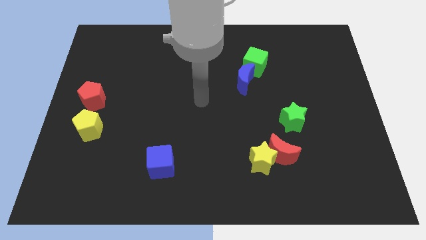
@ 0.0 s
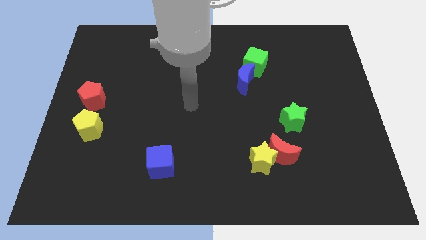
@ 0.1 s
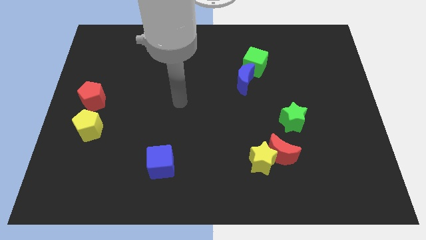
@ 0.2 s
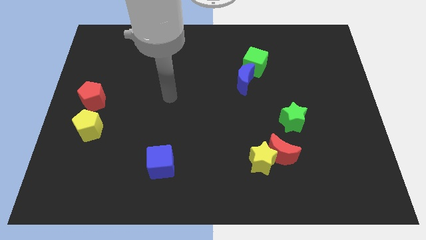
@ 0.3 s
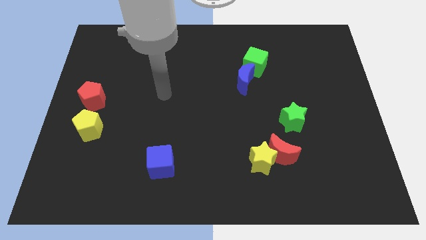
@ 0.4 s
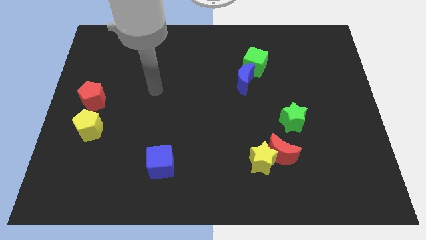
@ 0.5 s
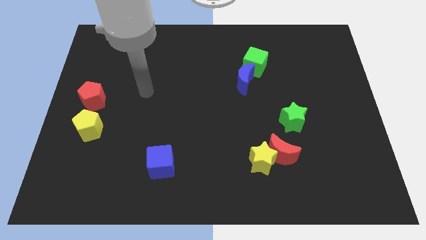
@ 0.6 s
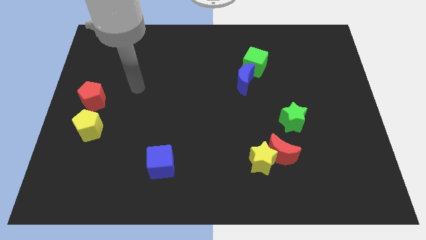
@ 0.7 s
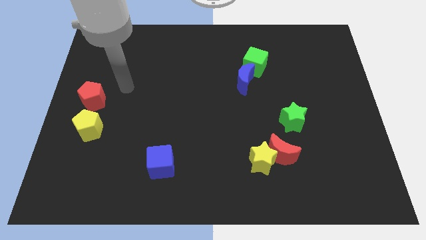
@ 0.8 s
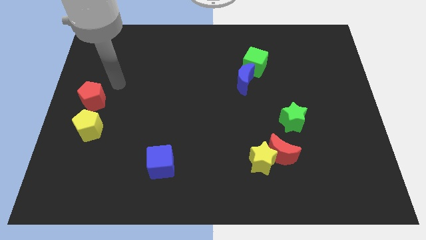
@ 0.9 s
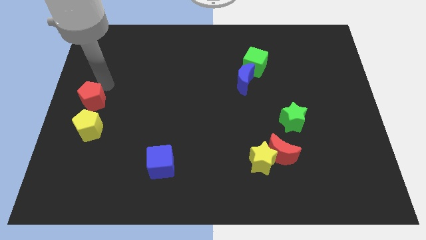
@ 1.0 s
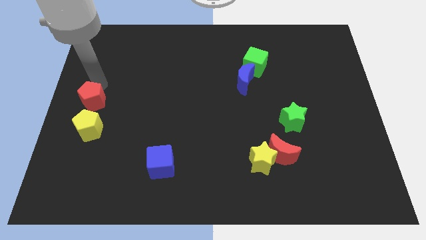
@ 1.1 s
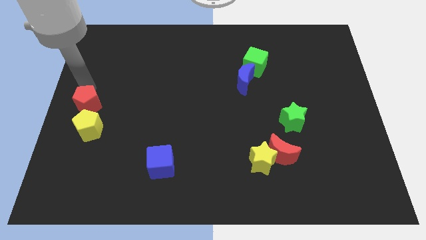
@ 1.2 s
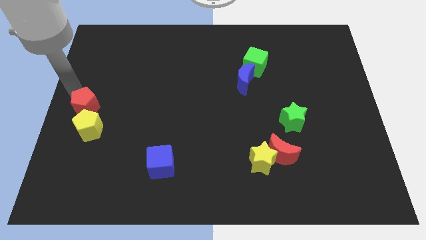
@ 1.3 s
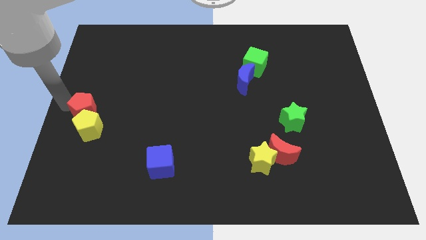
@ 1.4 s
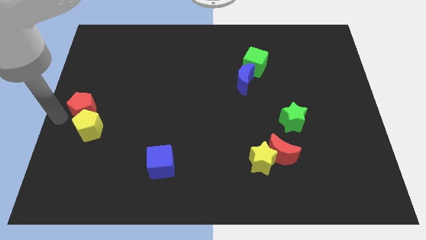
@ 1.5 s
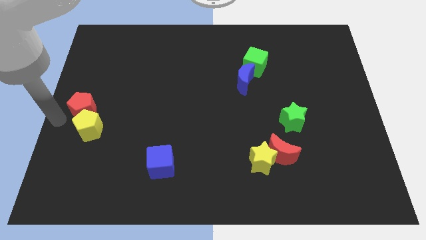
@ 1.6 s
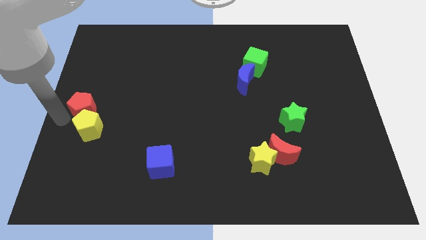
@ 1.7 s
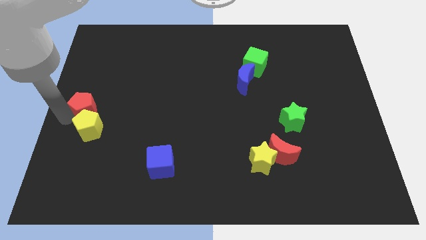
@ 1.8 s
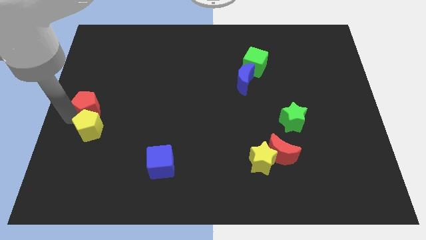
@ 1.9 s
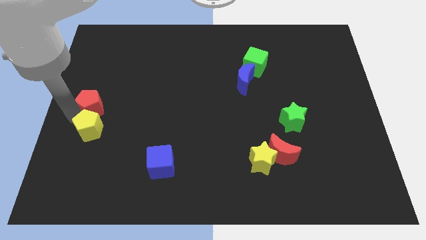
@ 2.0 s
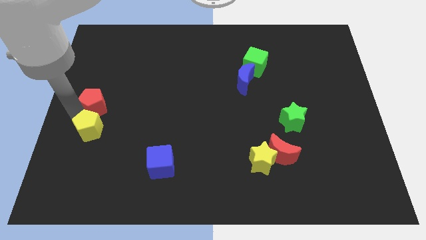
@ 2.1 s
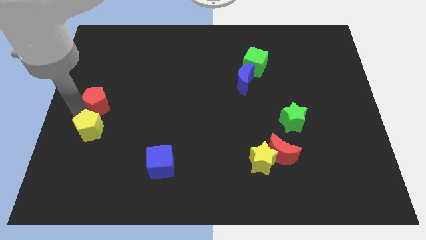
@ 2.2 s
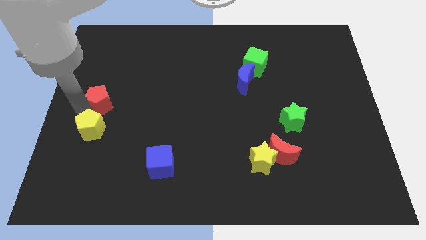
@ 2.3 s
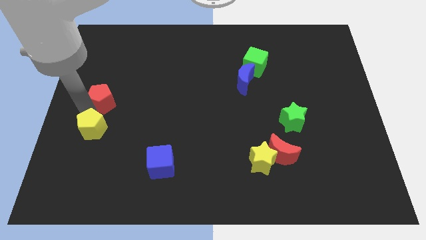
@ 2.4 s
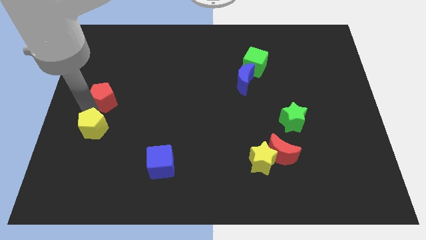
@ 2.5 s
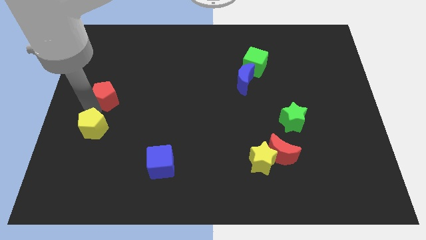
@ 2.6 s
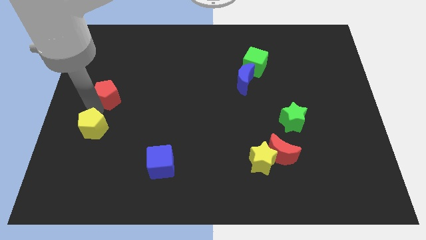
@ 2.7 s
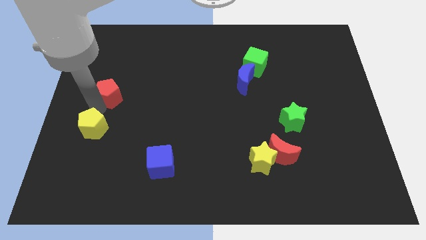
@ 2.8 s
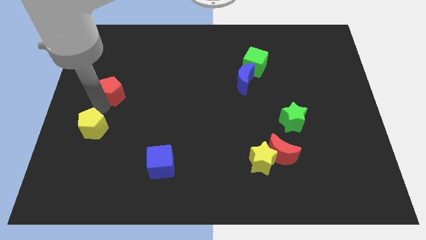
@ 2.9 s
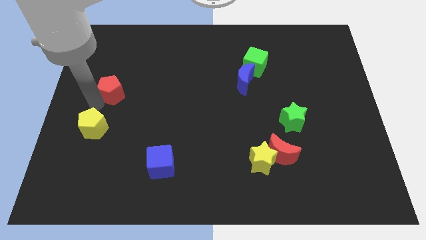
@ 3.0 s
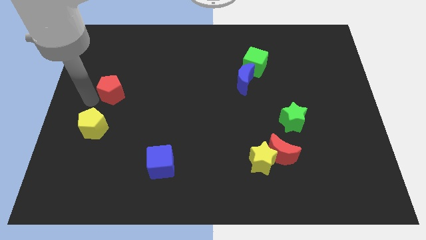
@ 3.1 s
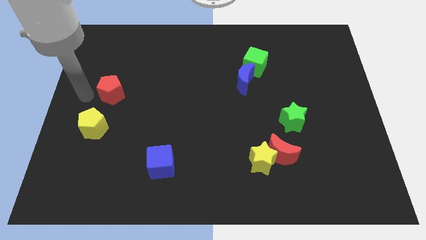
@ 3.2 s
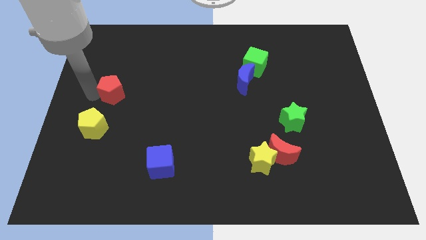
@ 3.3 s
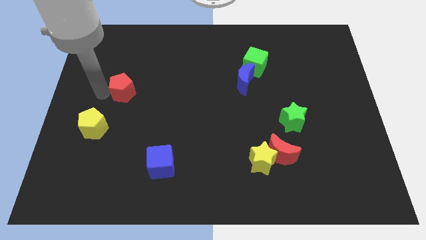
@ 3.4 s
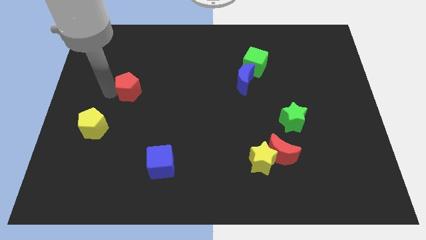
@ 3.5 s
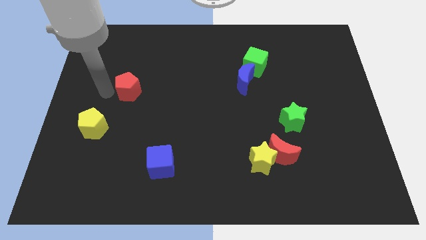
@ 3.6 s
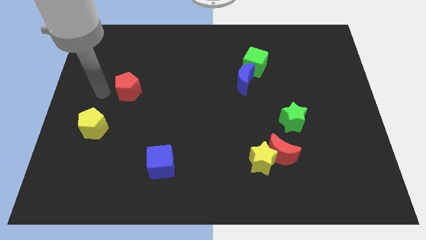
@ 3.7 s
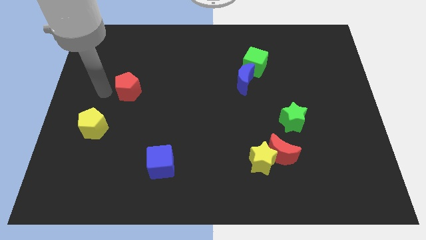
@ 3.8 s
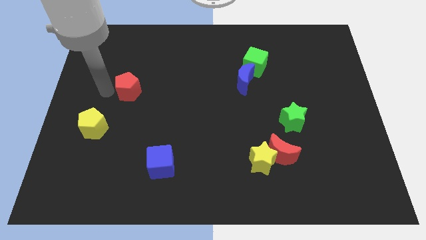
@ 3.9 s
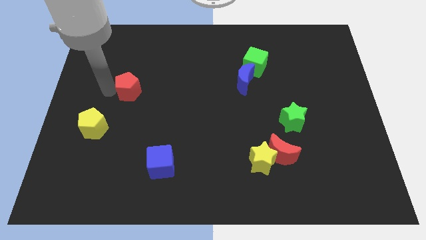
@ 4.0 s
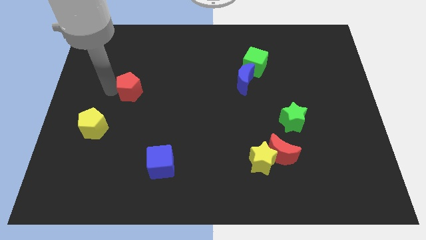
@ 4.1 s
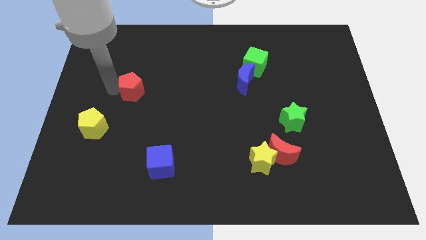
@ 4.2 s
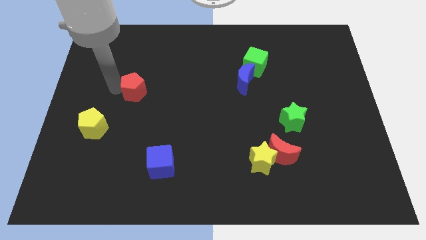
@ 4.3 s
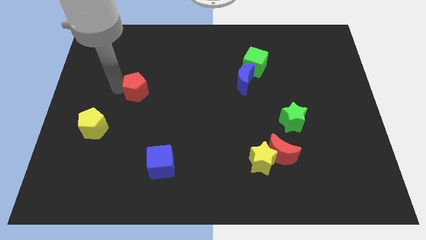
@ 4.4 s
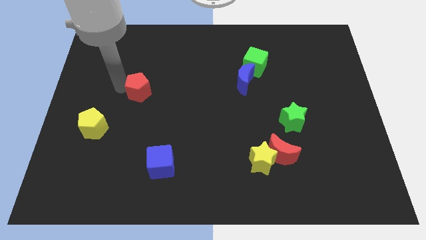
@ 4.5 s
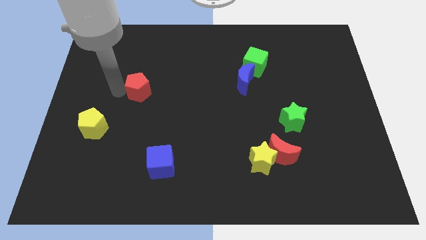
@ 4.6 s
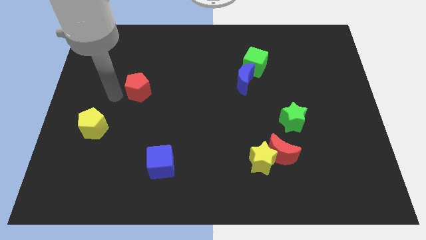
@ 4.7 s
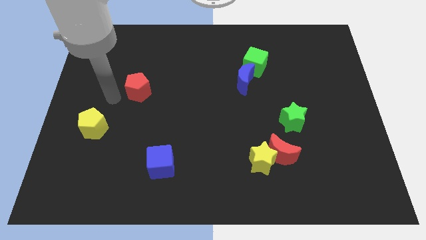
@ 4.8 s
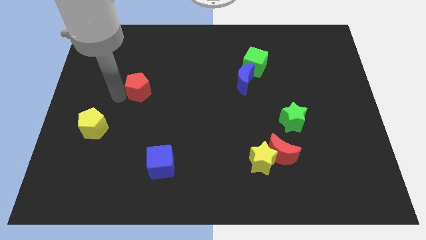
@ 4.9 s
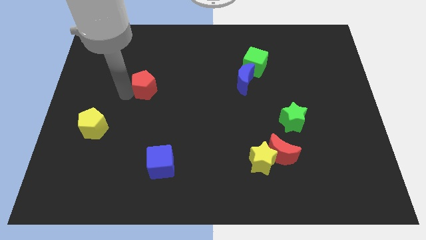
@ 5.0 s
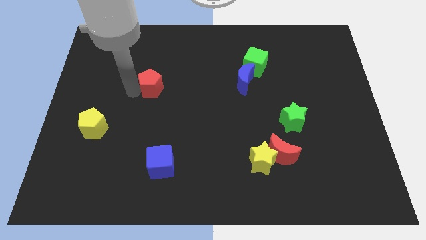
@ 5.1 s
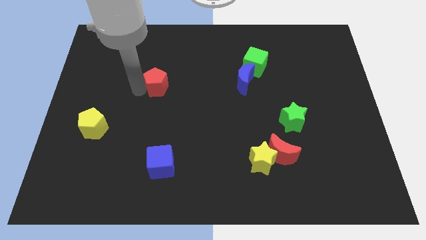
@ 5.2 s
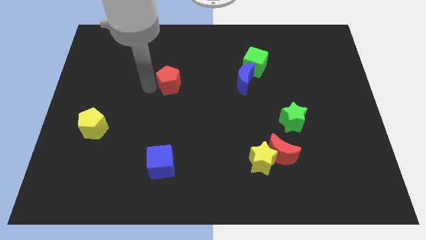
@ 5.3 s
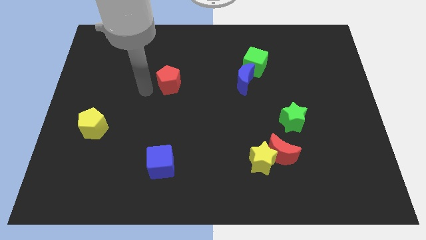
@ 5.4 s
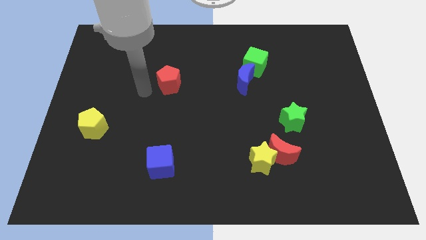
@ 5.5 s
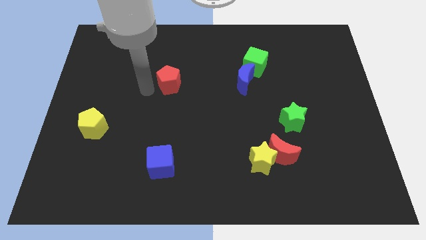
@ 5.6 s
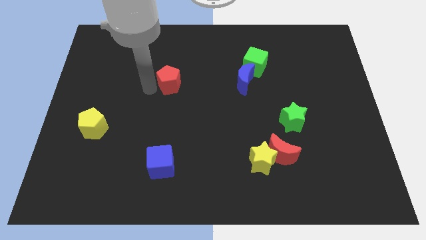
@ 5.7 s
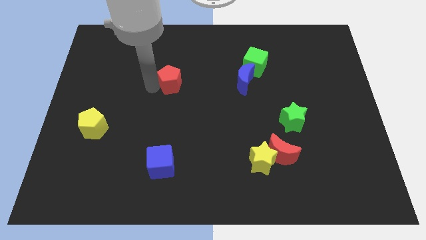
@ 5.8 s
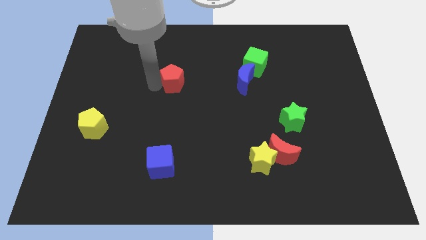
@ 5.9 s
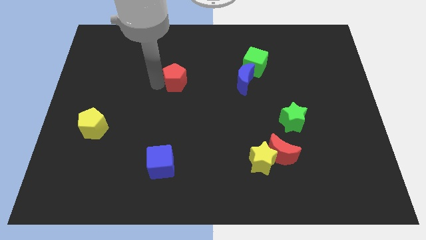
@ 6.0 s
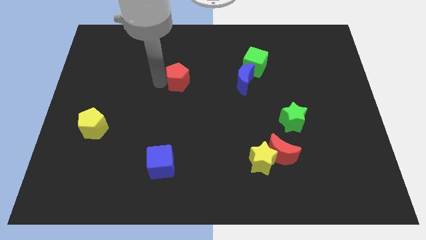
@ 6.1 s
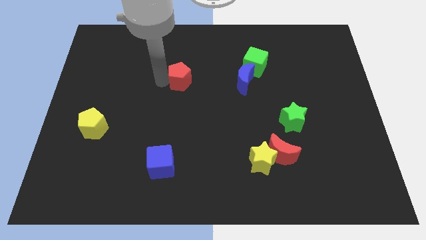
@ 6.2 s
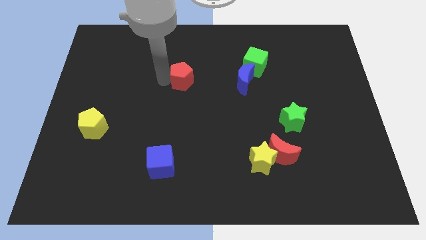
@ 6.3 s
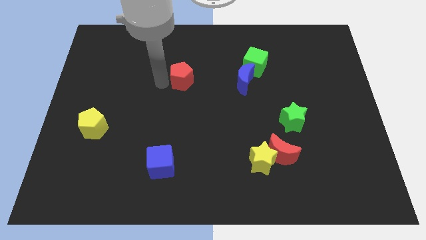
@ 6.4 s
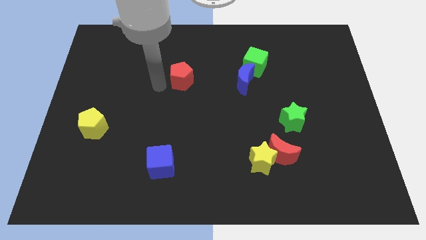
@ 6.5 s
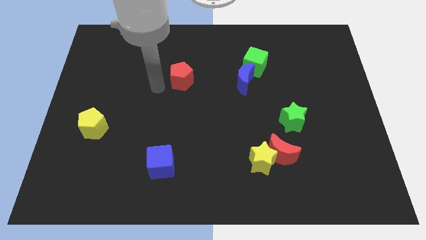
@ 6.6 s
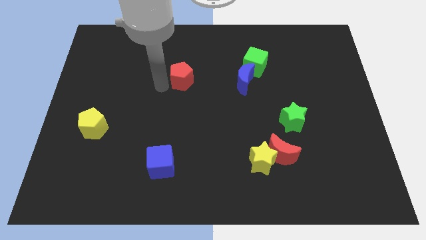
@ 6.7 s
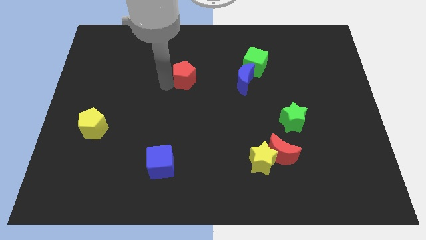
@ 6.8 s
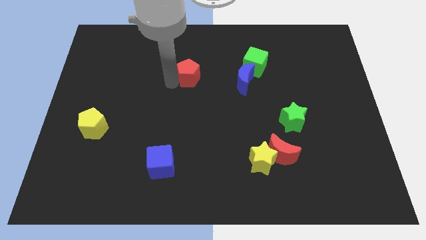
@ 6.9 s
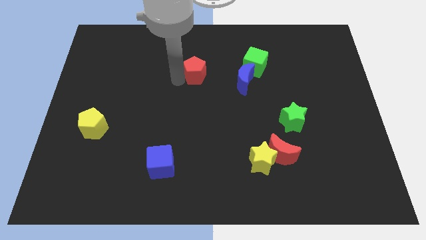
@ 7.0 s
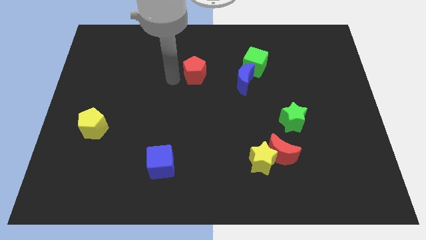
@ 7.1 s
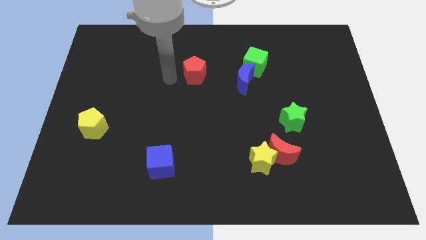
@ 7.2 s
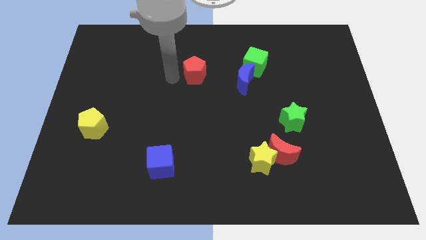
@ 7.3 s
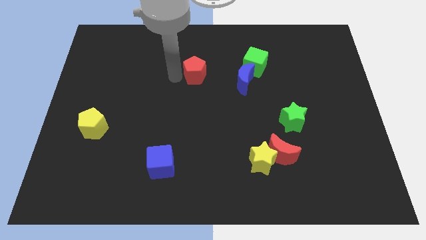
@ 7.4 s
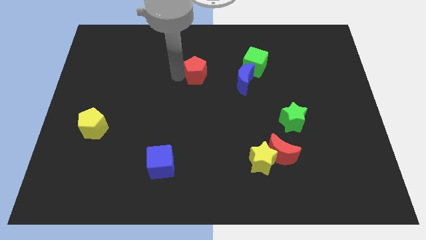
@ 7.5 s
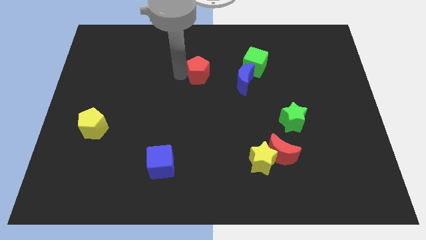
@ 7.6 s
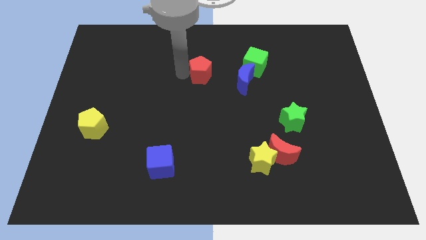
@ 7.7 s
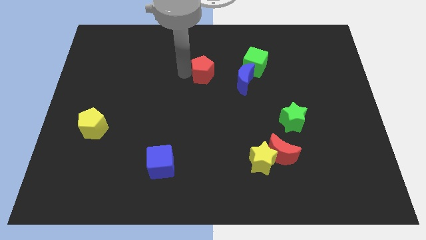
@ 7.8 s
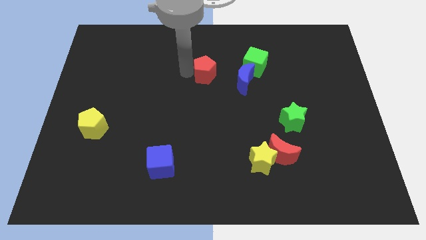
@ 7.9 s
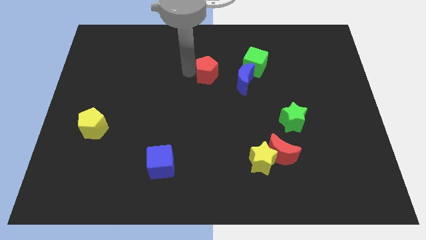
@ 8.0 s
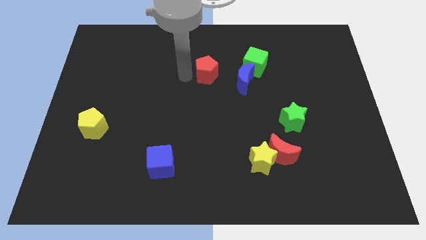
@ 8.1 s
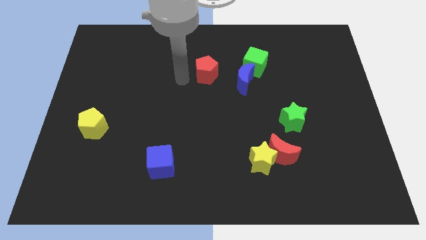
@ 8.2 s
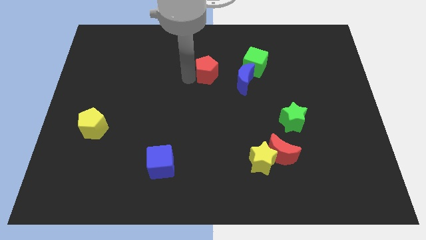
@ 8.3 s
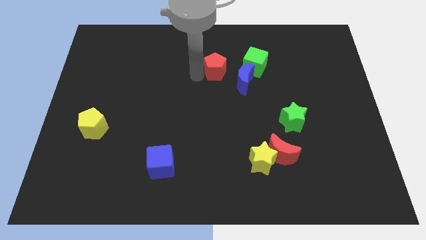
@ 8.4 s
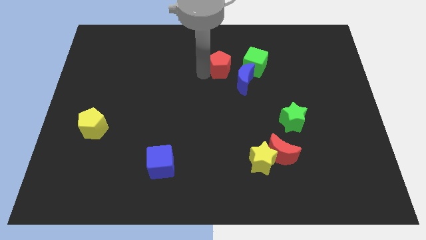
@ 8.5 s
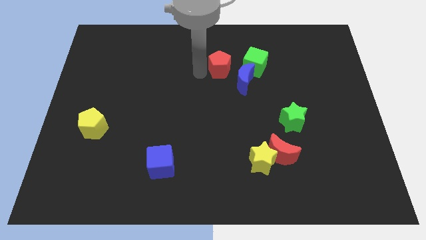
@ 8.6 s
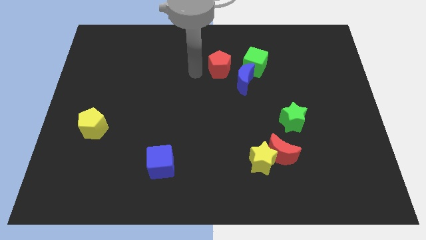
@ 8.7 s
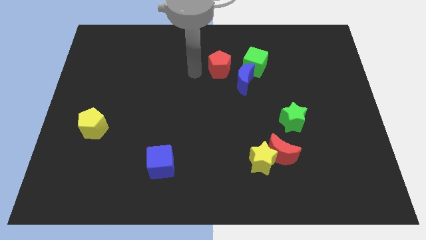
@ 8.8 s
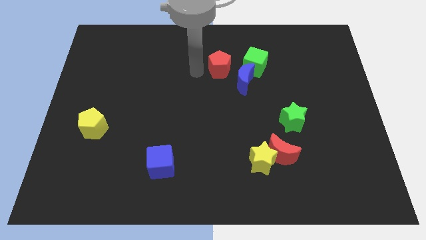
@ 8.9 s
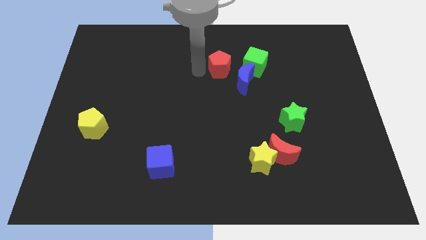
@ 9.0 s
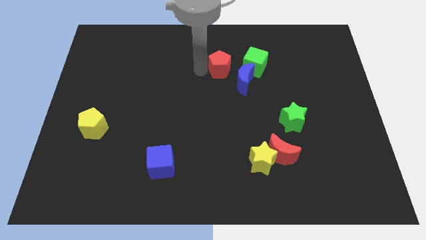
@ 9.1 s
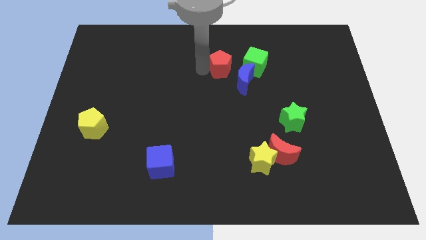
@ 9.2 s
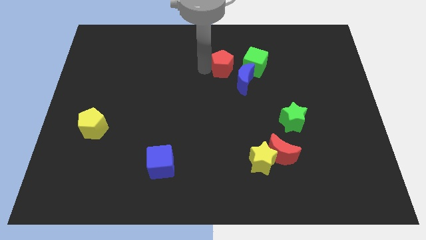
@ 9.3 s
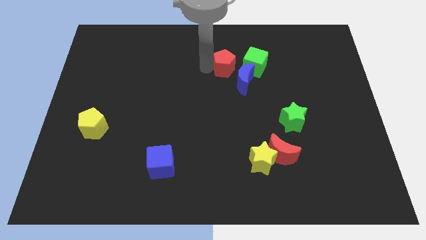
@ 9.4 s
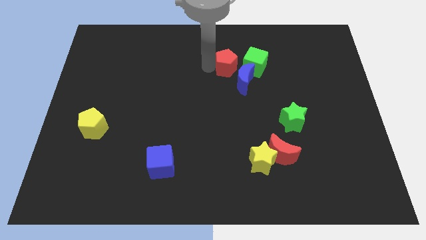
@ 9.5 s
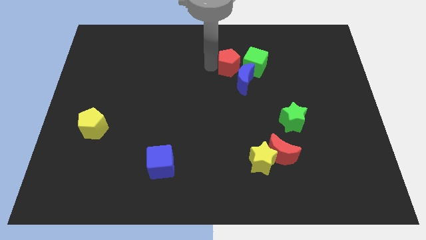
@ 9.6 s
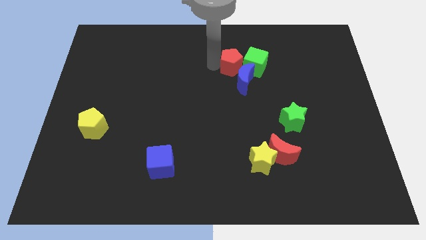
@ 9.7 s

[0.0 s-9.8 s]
put the red pentagon next to the green cube
